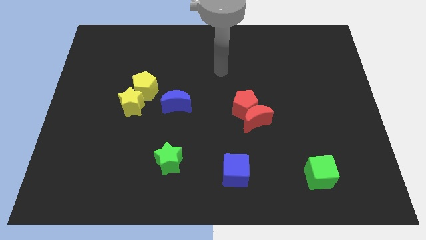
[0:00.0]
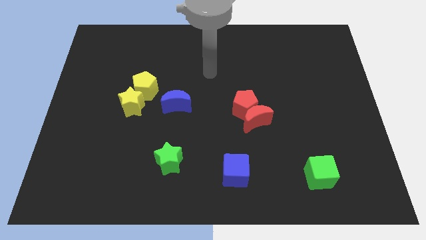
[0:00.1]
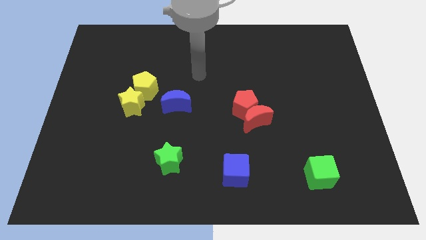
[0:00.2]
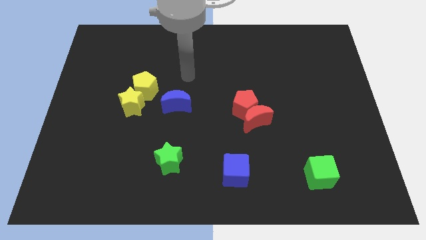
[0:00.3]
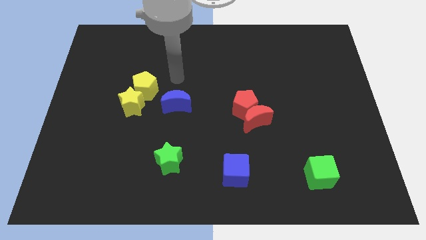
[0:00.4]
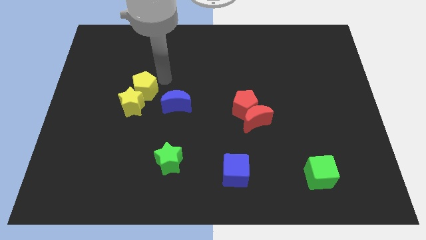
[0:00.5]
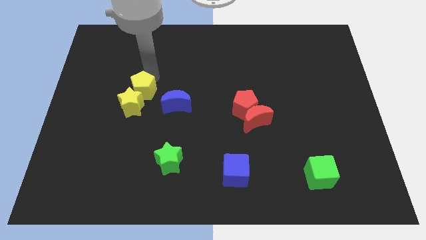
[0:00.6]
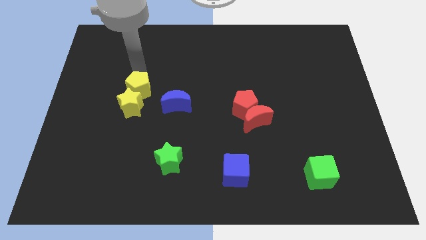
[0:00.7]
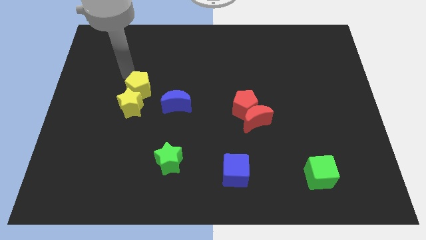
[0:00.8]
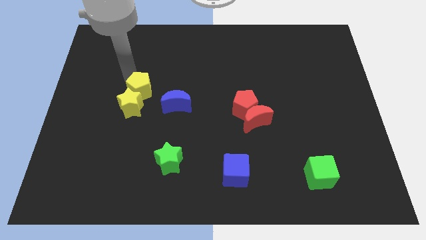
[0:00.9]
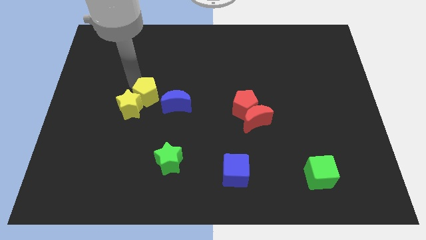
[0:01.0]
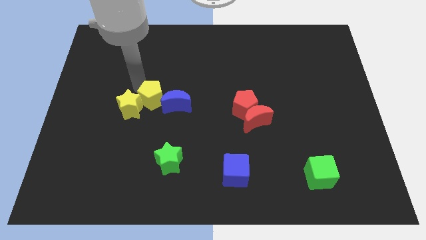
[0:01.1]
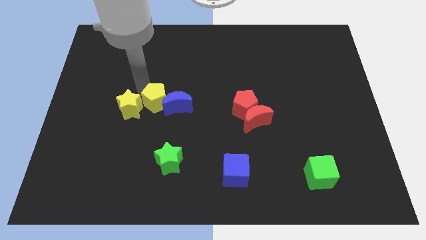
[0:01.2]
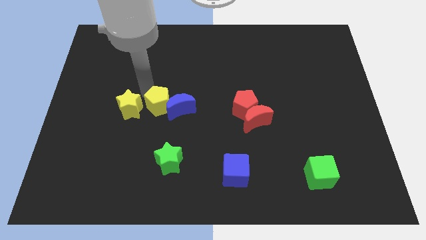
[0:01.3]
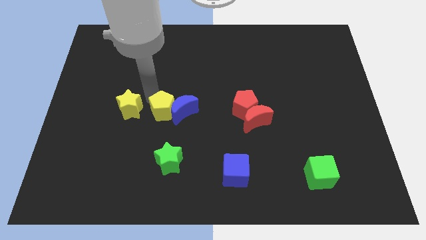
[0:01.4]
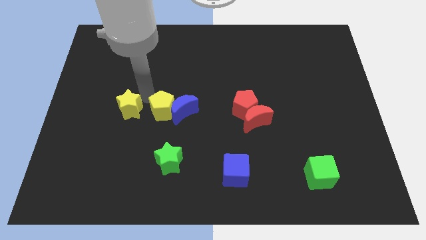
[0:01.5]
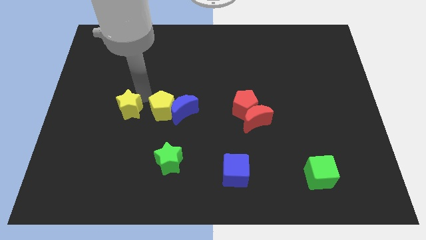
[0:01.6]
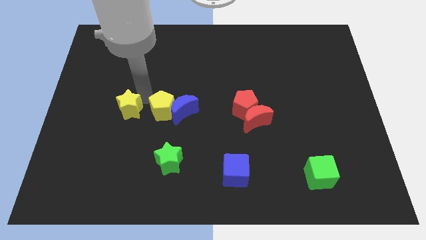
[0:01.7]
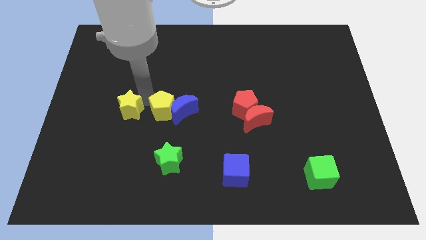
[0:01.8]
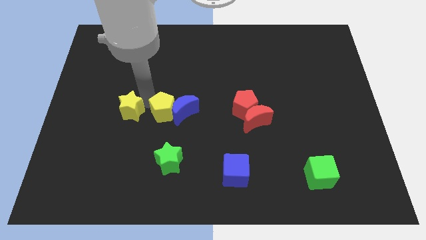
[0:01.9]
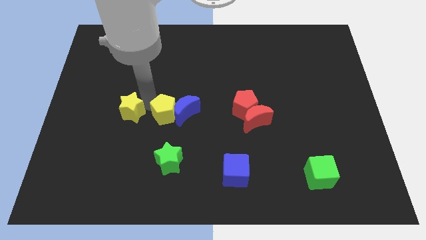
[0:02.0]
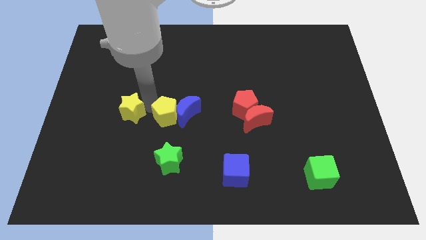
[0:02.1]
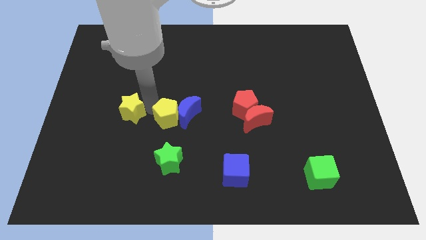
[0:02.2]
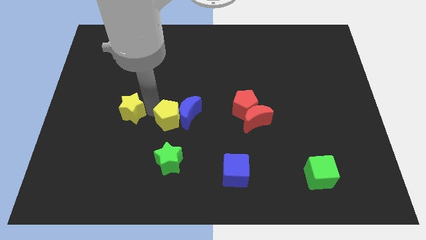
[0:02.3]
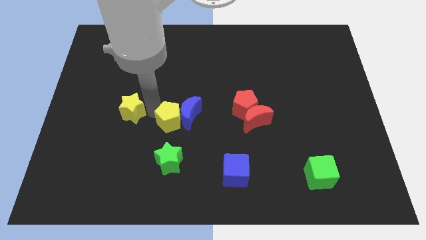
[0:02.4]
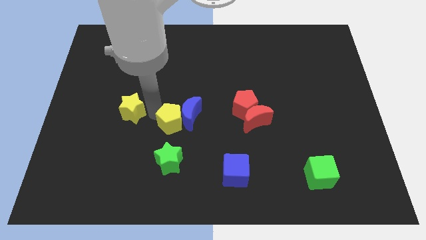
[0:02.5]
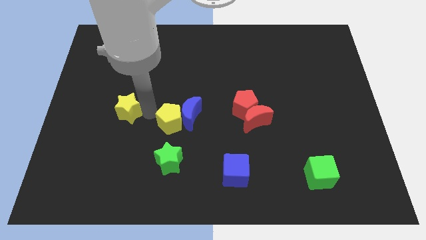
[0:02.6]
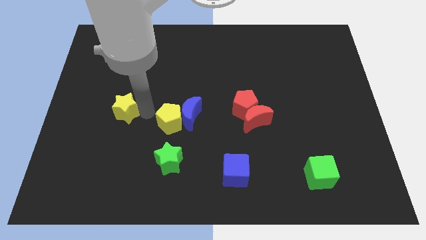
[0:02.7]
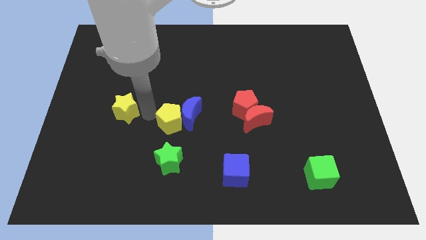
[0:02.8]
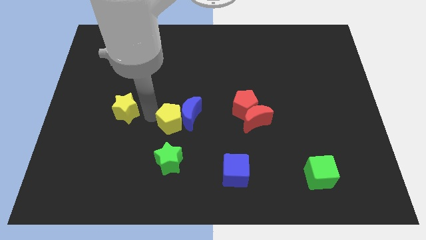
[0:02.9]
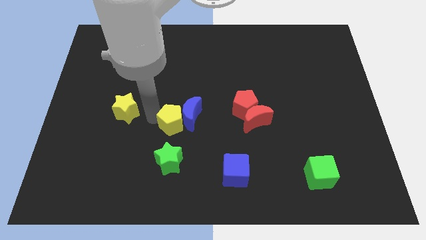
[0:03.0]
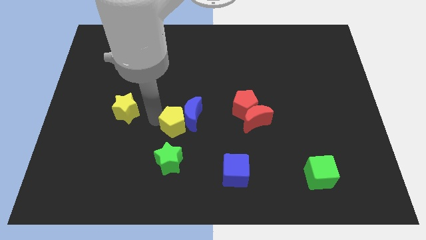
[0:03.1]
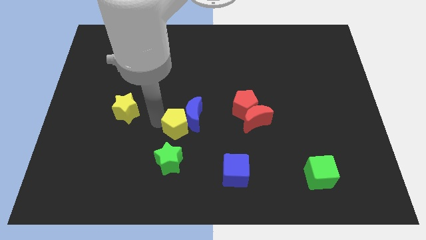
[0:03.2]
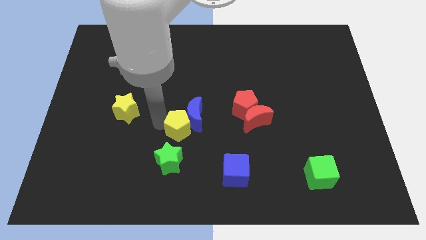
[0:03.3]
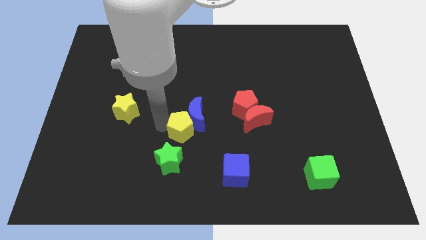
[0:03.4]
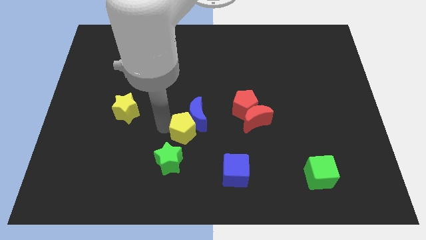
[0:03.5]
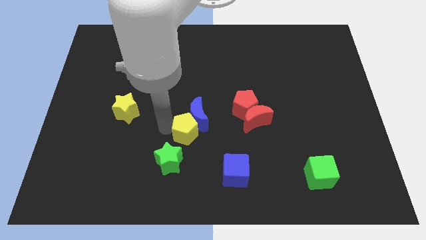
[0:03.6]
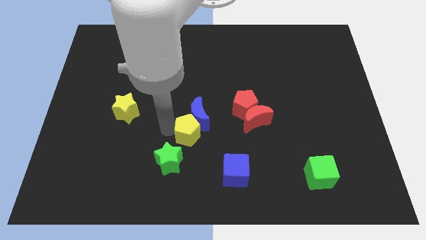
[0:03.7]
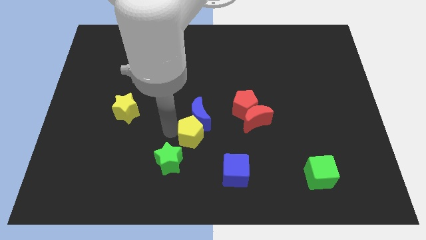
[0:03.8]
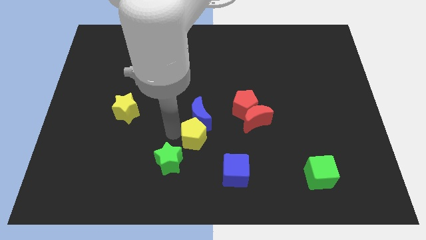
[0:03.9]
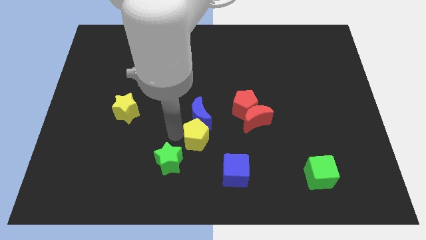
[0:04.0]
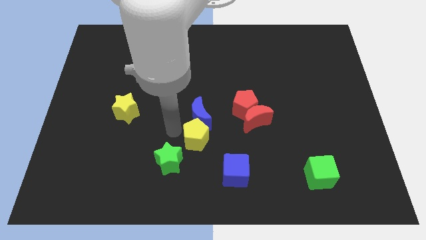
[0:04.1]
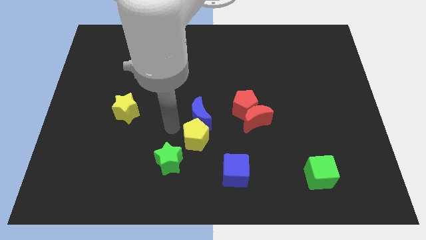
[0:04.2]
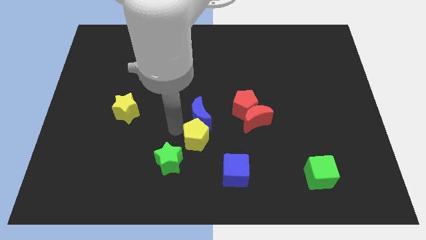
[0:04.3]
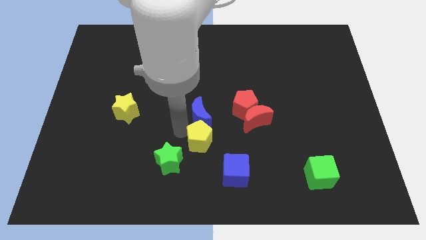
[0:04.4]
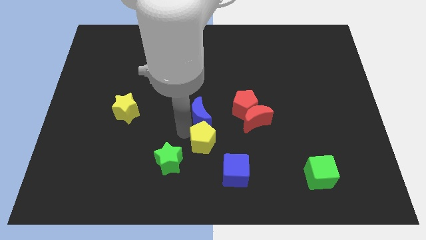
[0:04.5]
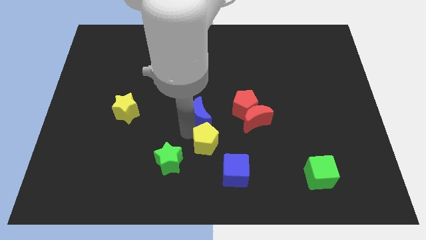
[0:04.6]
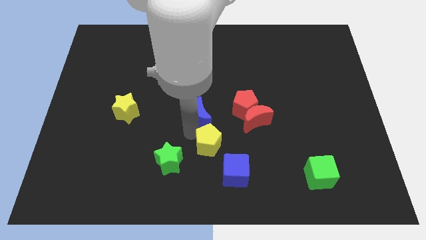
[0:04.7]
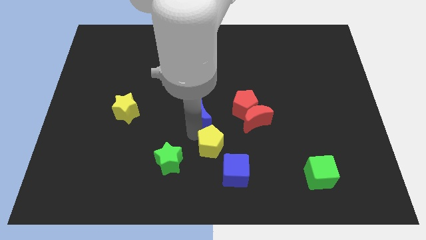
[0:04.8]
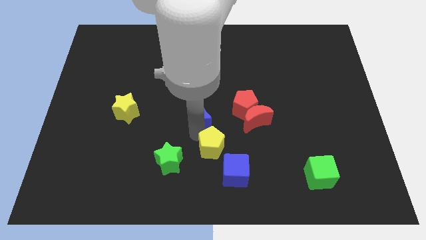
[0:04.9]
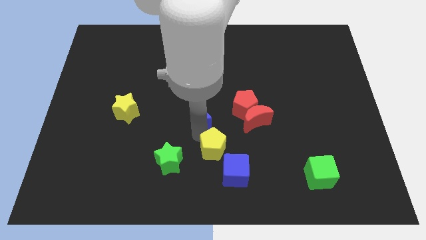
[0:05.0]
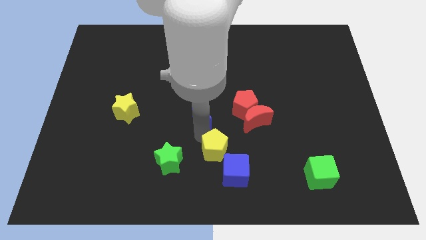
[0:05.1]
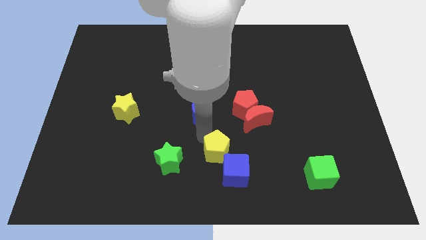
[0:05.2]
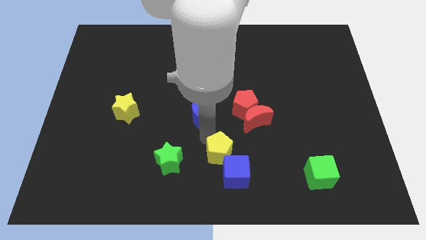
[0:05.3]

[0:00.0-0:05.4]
push the yellow pentagon towards the blue cube

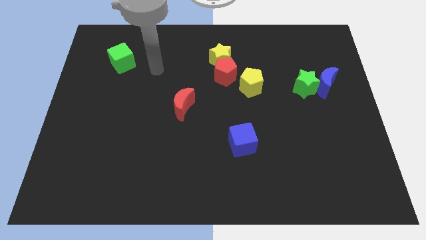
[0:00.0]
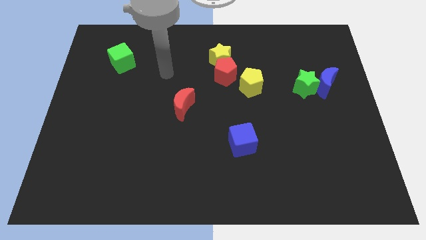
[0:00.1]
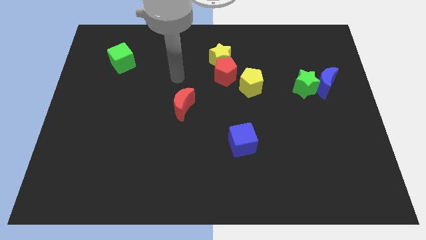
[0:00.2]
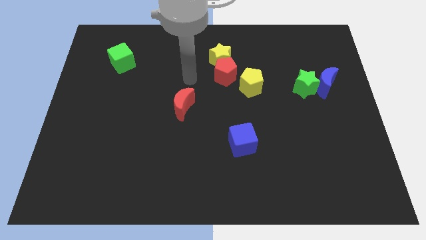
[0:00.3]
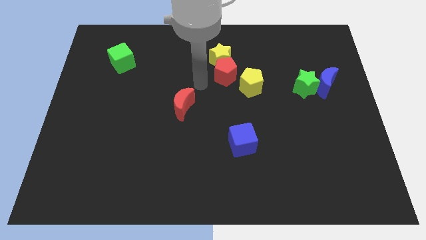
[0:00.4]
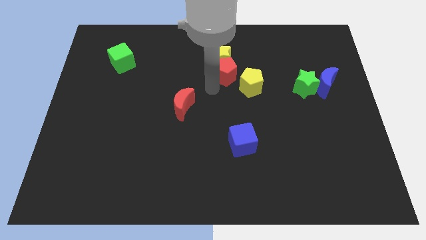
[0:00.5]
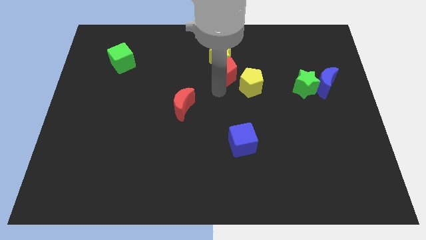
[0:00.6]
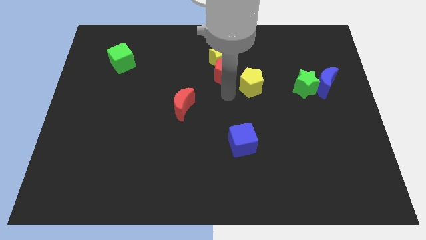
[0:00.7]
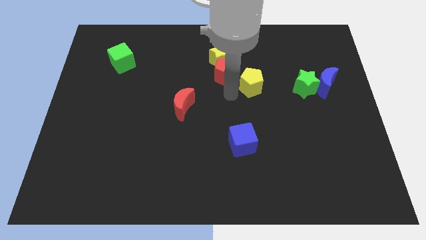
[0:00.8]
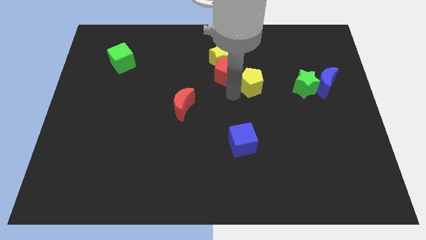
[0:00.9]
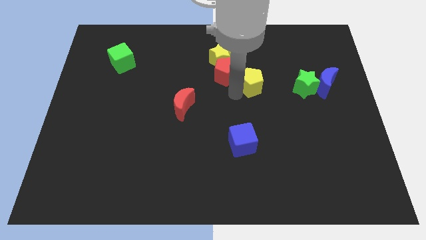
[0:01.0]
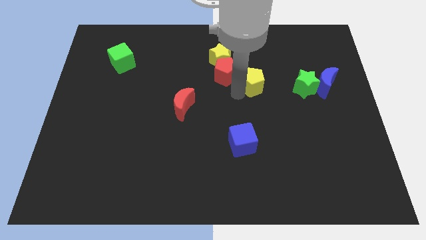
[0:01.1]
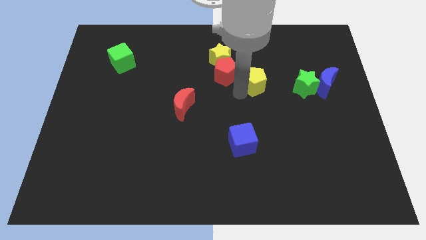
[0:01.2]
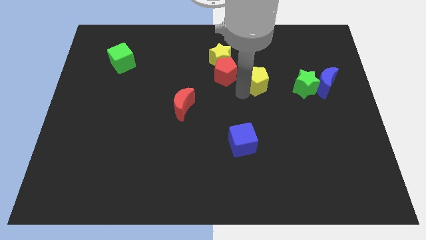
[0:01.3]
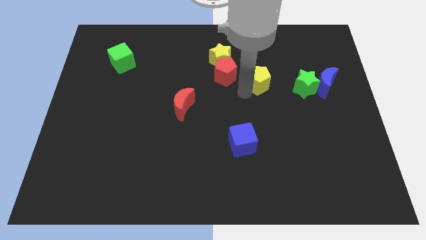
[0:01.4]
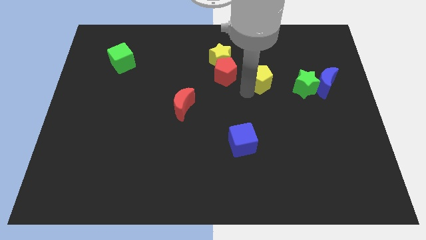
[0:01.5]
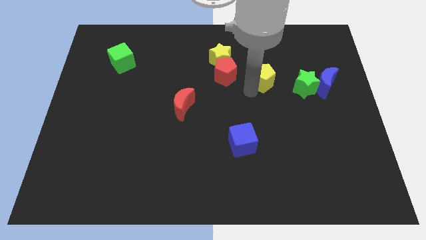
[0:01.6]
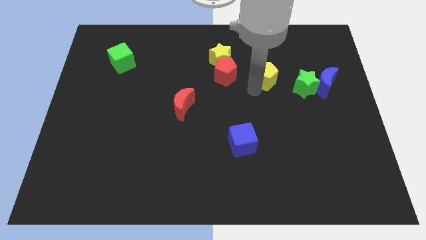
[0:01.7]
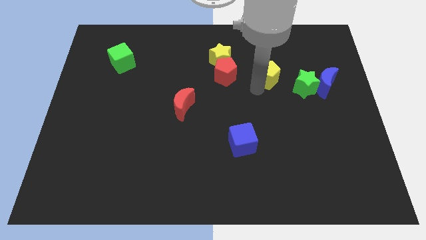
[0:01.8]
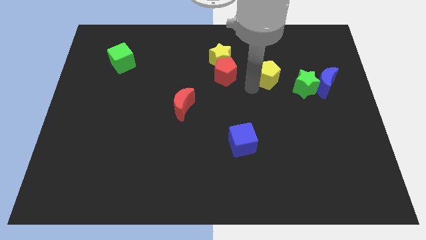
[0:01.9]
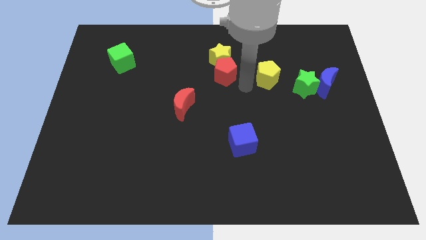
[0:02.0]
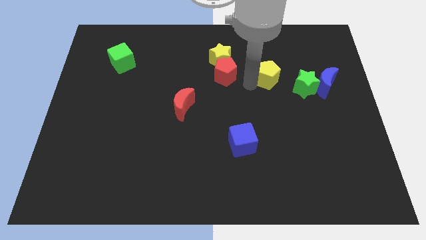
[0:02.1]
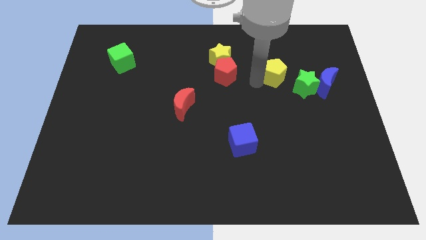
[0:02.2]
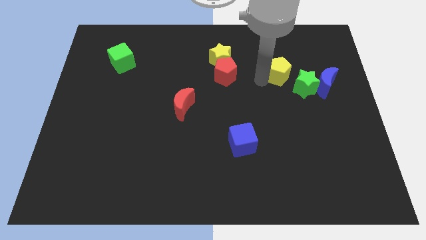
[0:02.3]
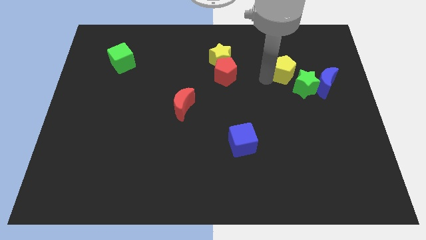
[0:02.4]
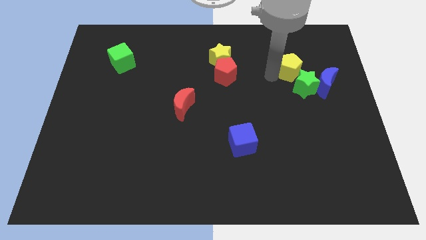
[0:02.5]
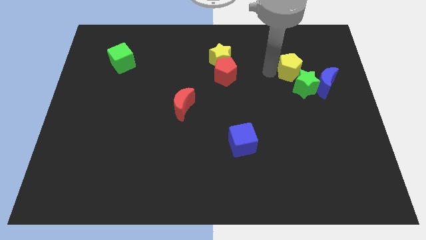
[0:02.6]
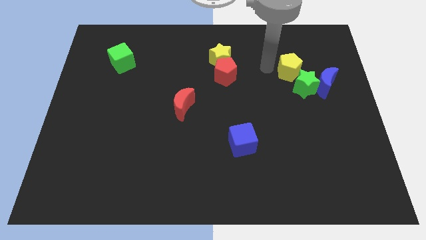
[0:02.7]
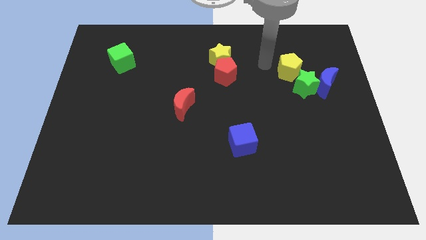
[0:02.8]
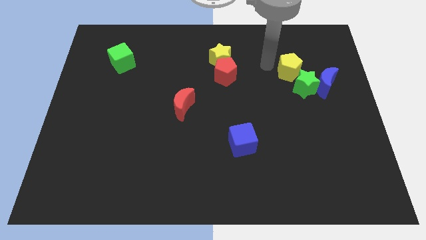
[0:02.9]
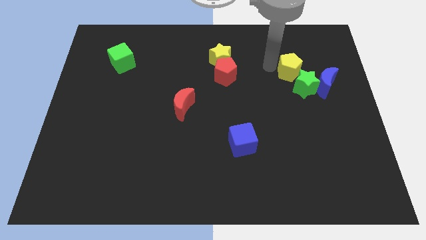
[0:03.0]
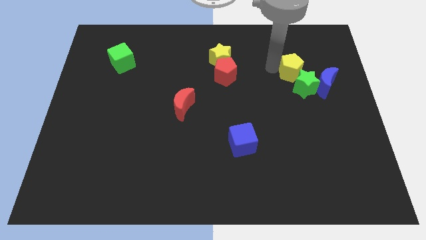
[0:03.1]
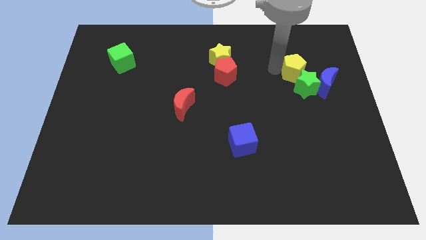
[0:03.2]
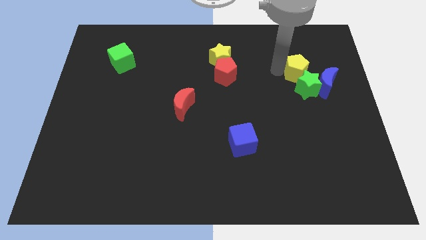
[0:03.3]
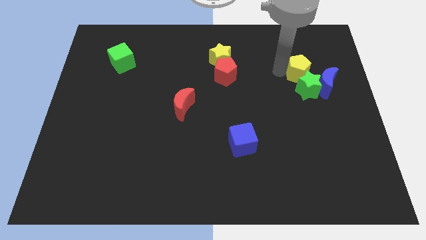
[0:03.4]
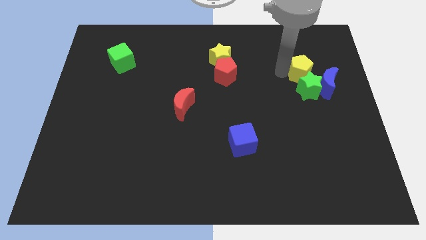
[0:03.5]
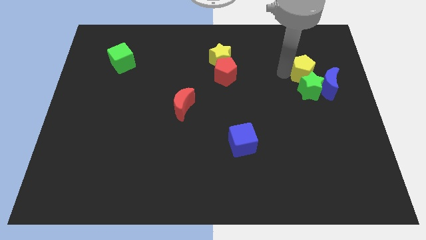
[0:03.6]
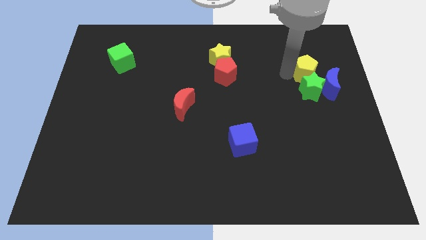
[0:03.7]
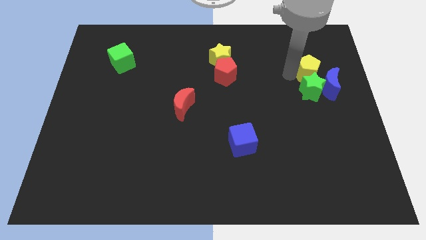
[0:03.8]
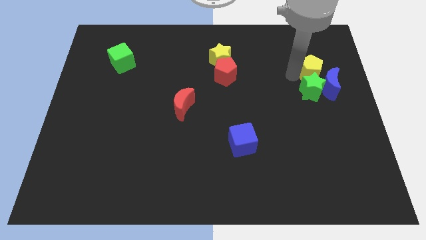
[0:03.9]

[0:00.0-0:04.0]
push the yellow pentagon to the blue moon
